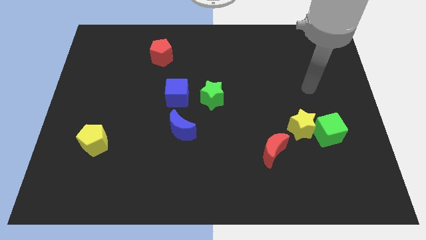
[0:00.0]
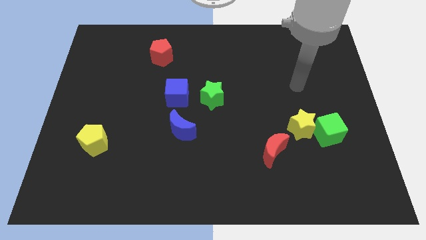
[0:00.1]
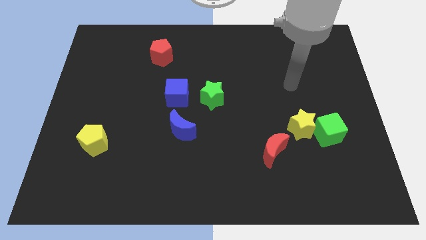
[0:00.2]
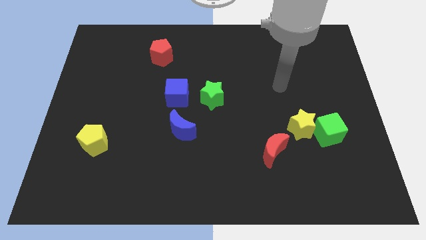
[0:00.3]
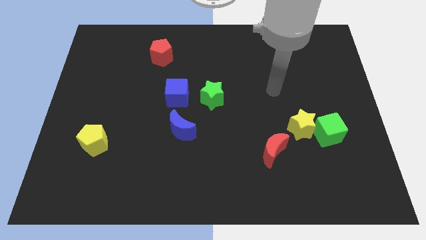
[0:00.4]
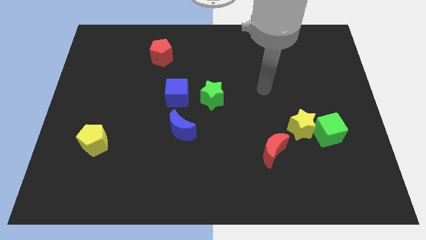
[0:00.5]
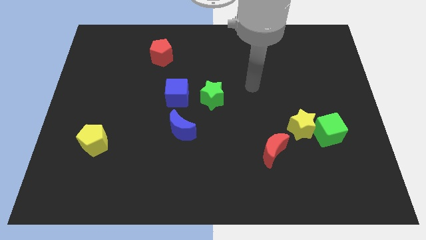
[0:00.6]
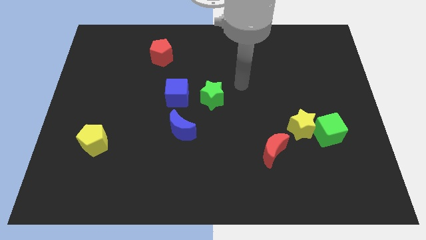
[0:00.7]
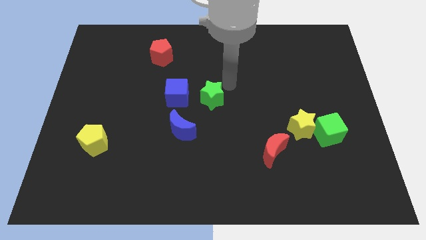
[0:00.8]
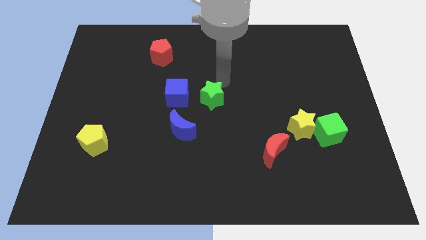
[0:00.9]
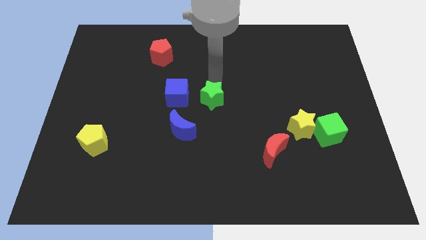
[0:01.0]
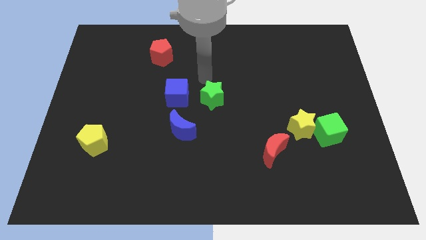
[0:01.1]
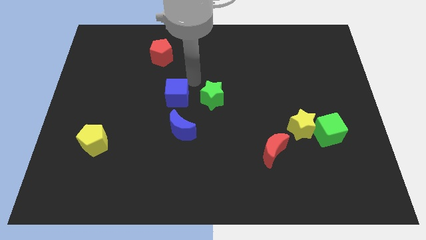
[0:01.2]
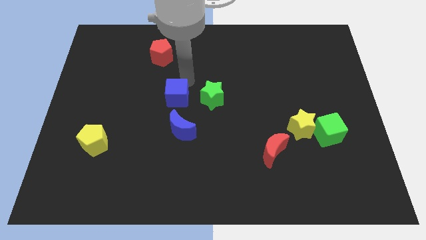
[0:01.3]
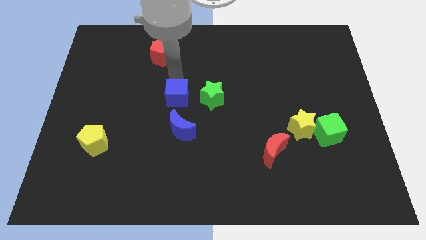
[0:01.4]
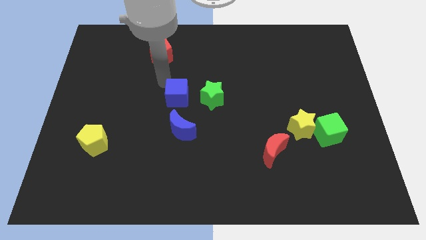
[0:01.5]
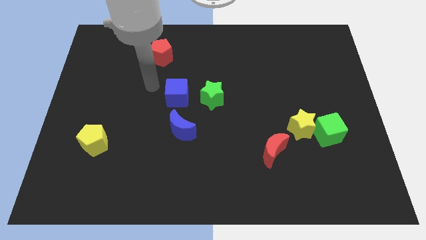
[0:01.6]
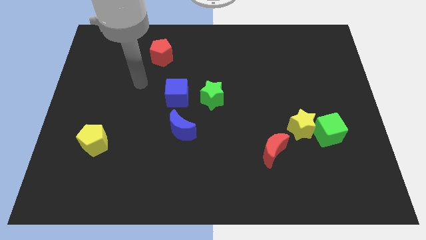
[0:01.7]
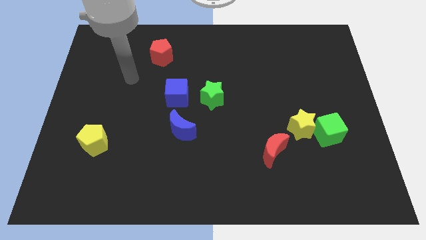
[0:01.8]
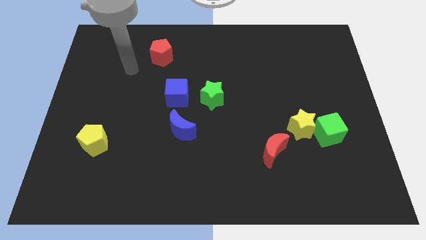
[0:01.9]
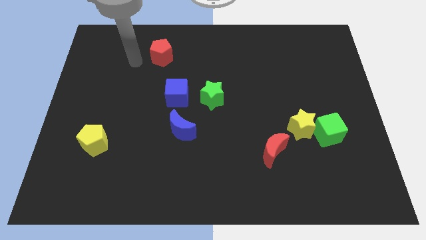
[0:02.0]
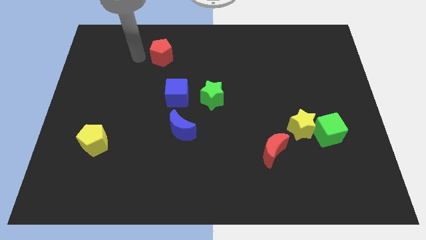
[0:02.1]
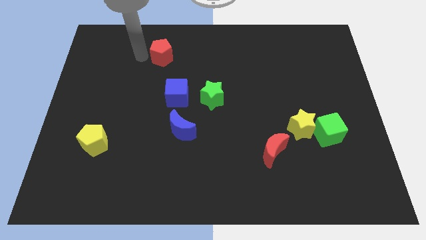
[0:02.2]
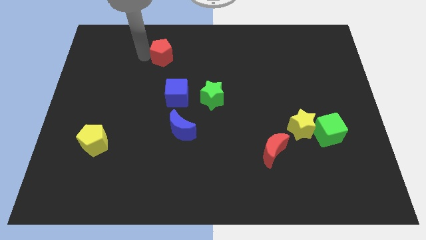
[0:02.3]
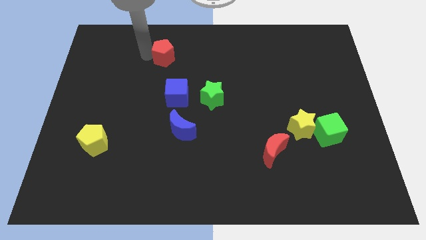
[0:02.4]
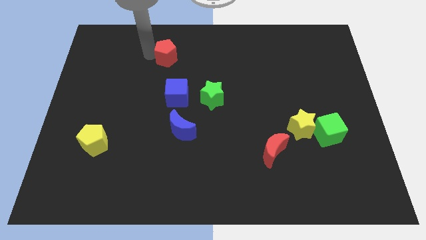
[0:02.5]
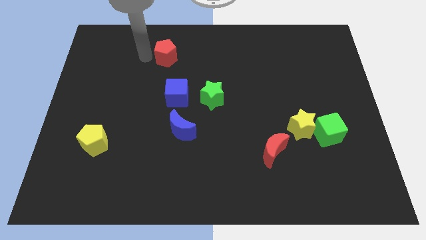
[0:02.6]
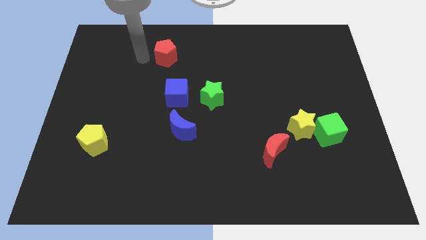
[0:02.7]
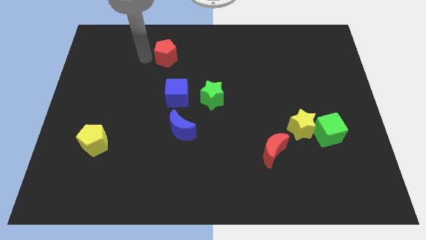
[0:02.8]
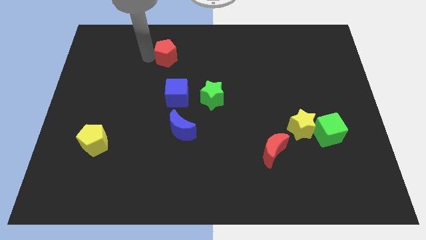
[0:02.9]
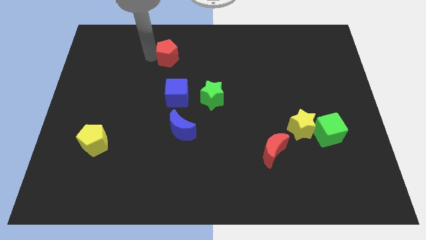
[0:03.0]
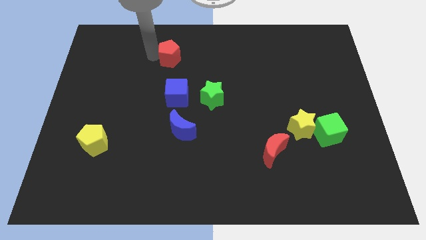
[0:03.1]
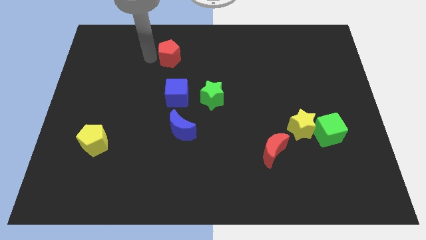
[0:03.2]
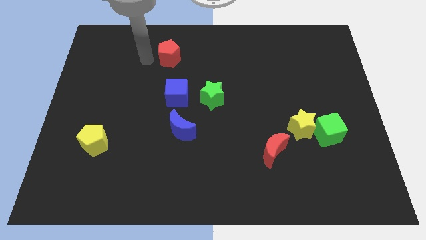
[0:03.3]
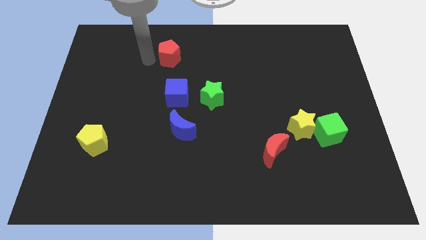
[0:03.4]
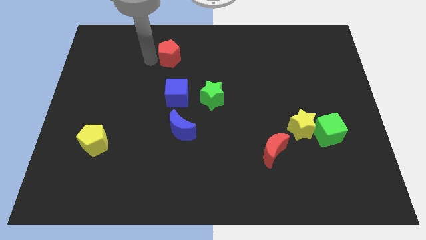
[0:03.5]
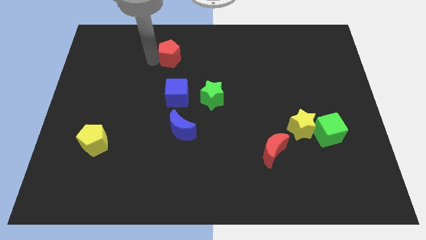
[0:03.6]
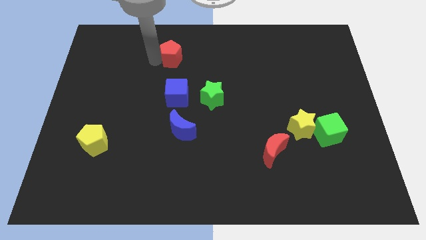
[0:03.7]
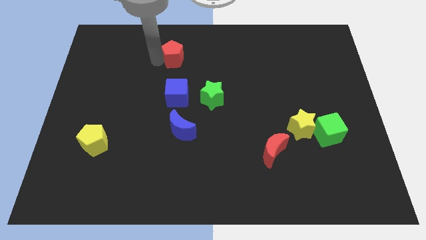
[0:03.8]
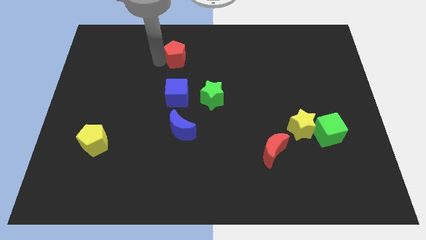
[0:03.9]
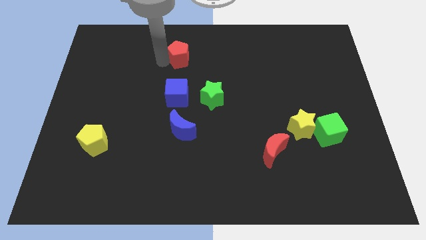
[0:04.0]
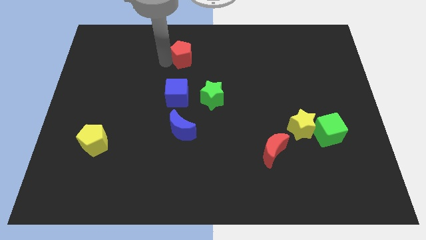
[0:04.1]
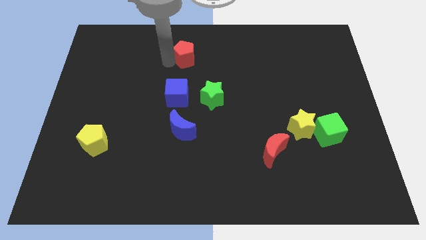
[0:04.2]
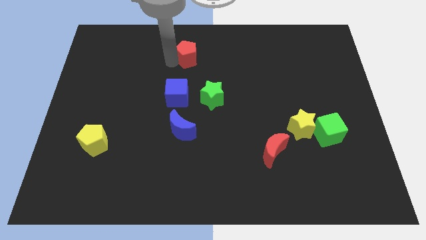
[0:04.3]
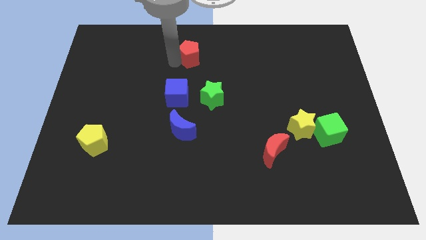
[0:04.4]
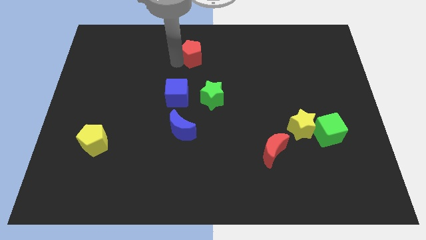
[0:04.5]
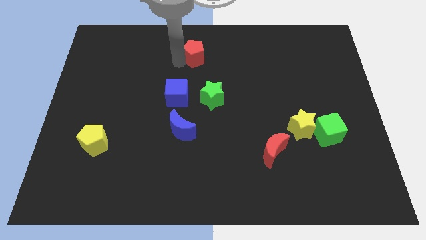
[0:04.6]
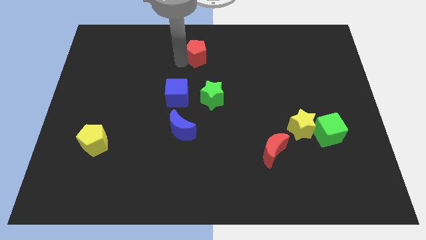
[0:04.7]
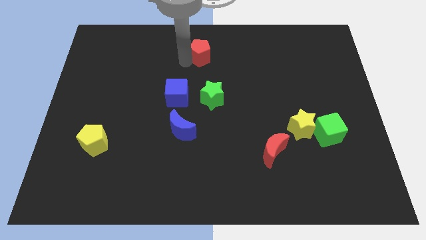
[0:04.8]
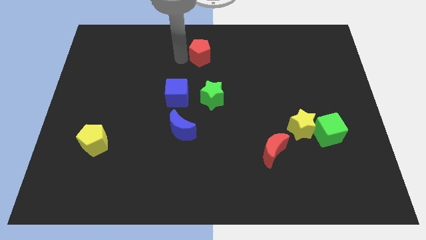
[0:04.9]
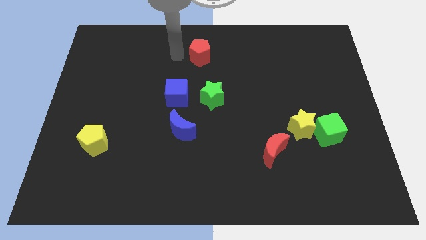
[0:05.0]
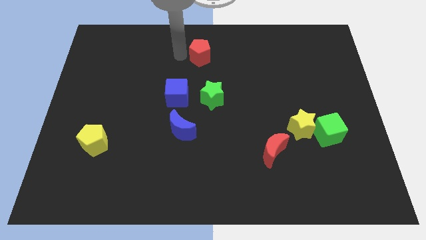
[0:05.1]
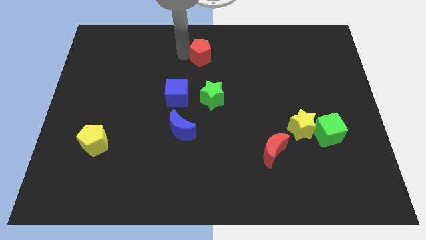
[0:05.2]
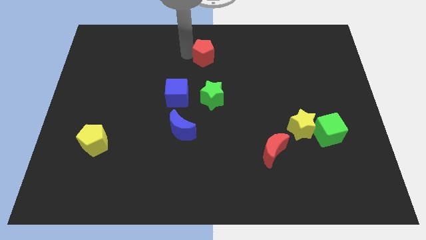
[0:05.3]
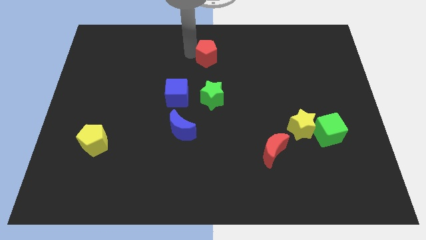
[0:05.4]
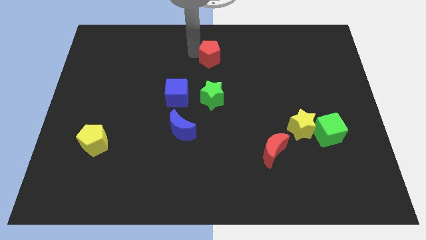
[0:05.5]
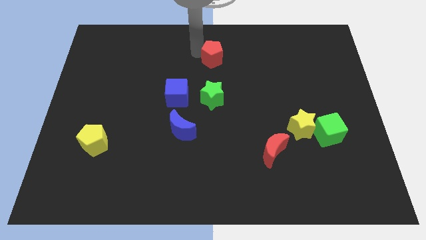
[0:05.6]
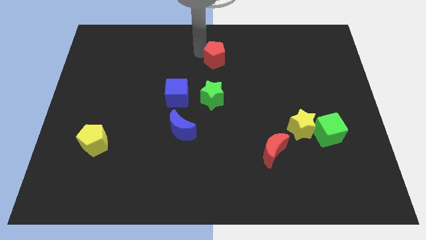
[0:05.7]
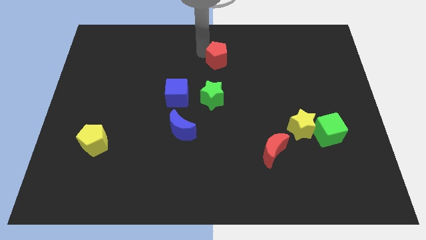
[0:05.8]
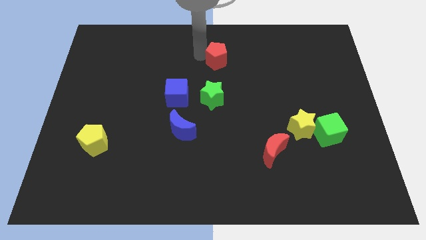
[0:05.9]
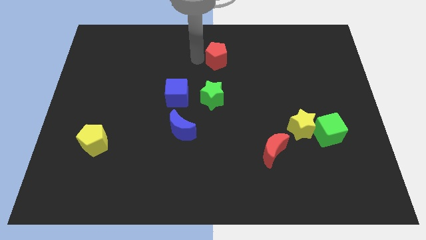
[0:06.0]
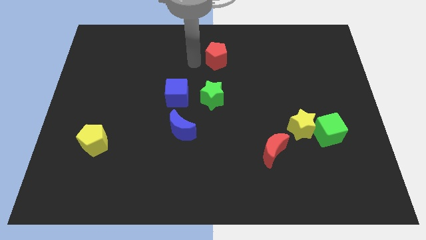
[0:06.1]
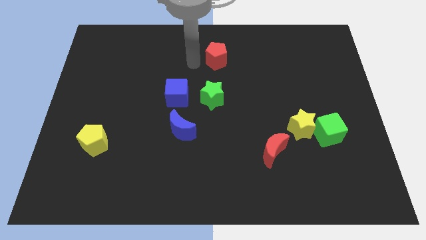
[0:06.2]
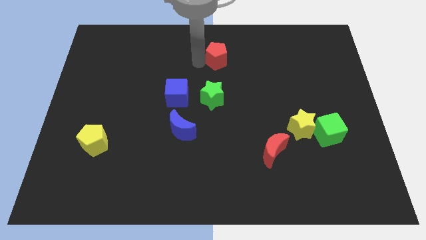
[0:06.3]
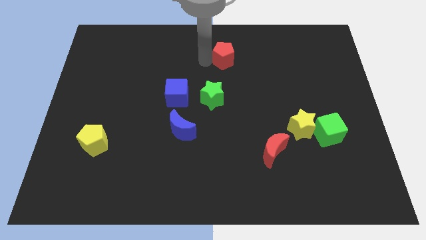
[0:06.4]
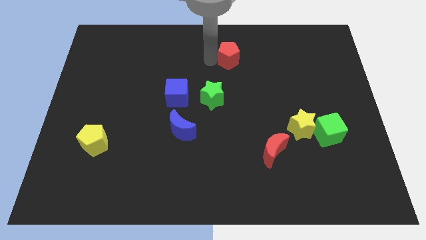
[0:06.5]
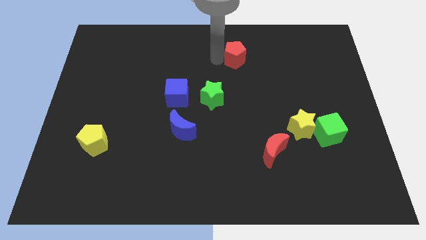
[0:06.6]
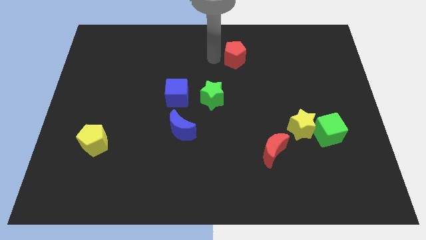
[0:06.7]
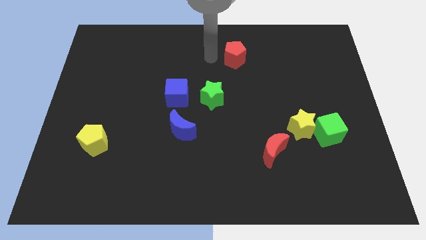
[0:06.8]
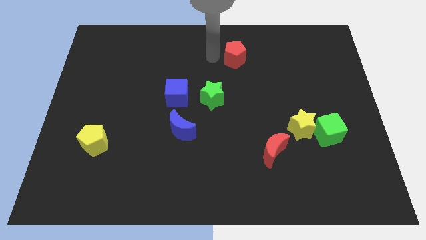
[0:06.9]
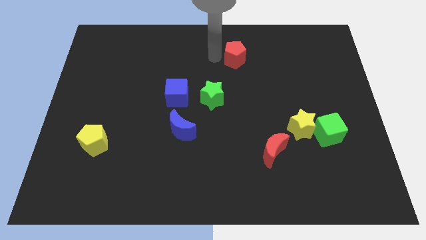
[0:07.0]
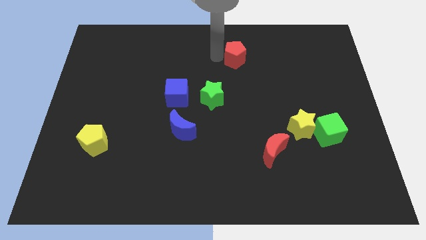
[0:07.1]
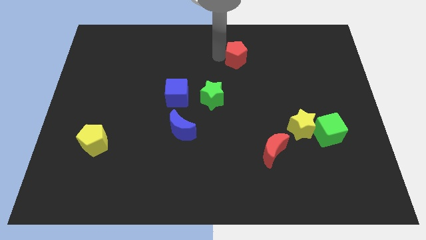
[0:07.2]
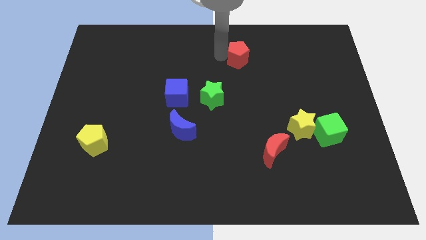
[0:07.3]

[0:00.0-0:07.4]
push the red pentagon to the right
